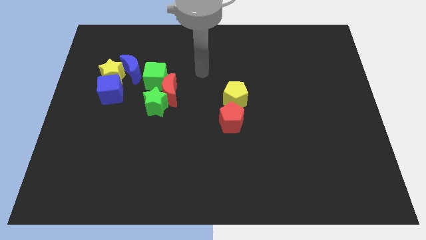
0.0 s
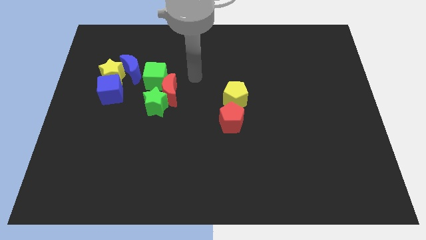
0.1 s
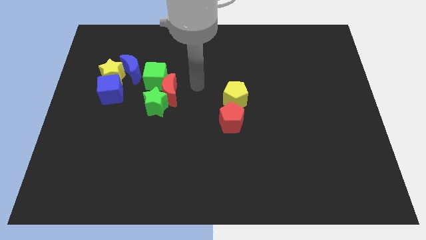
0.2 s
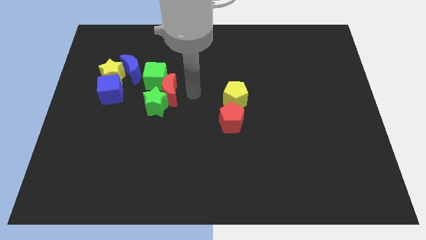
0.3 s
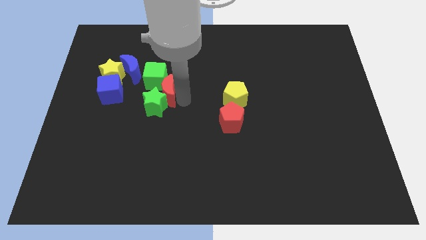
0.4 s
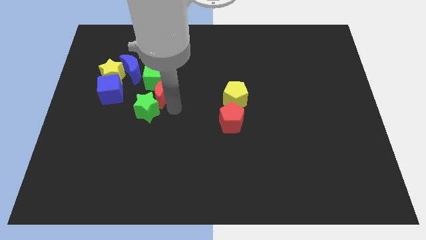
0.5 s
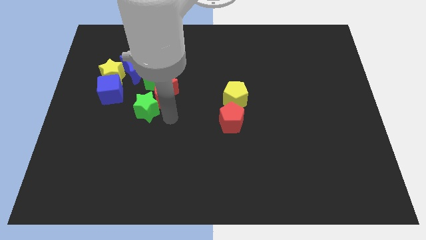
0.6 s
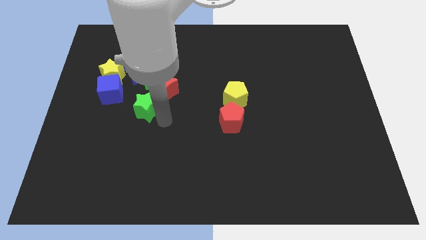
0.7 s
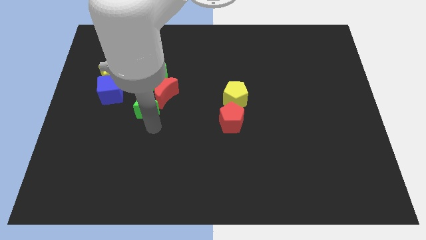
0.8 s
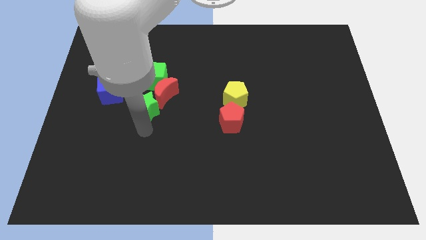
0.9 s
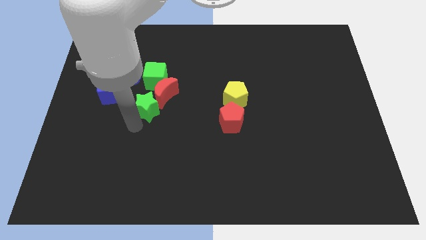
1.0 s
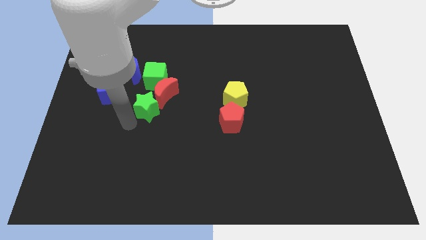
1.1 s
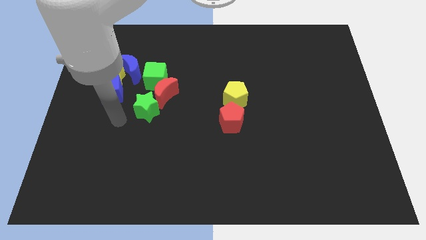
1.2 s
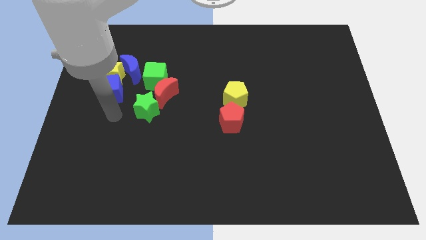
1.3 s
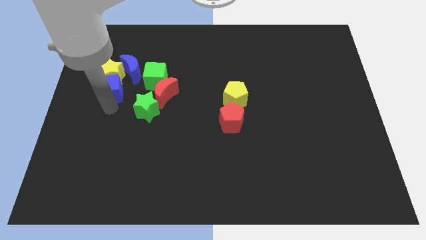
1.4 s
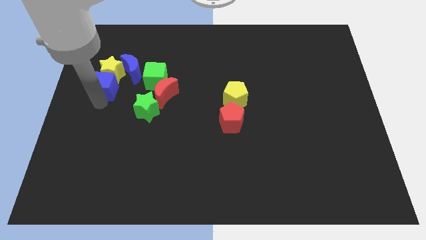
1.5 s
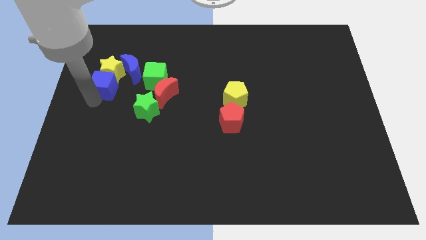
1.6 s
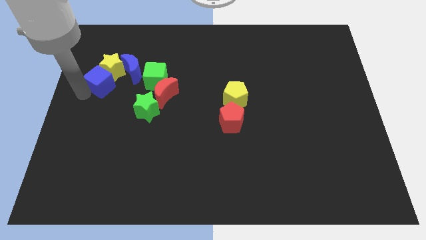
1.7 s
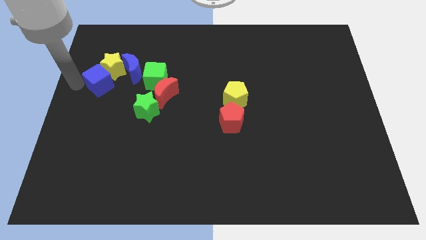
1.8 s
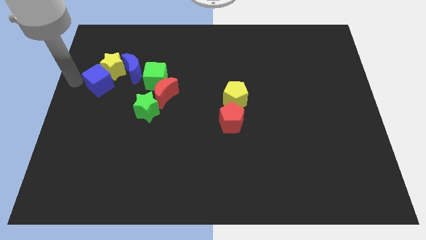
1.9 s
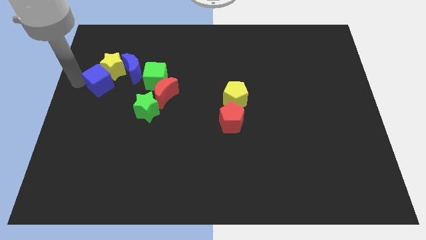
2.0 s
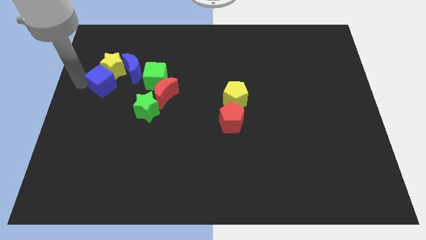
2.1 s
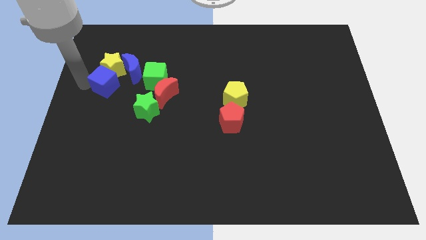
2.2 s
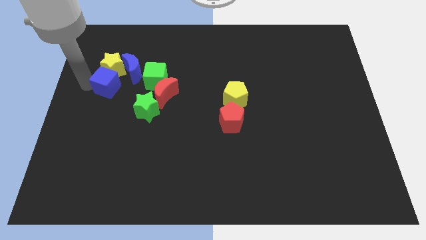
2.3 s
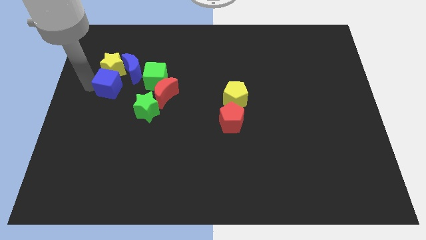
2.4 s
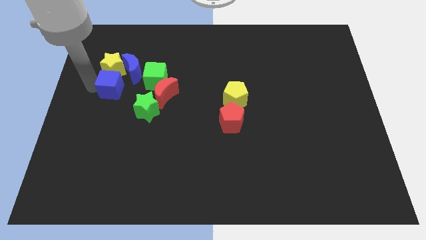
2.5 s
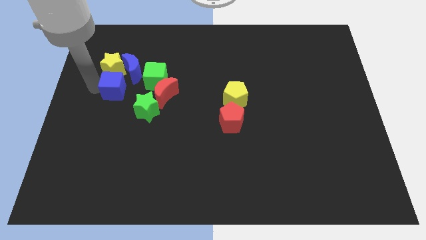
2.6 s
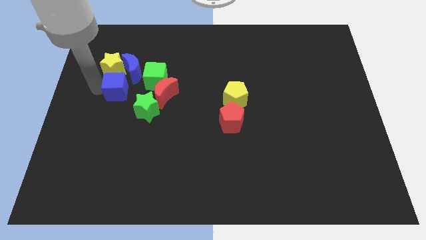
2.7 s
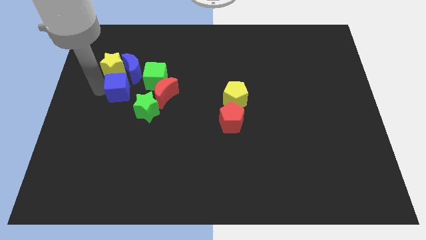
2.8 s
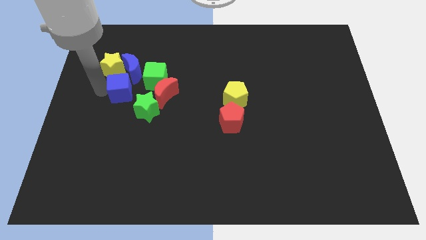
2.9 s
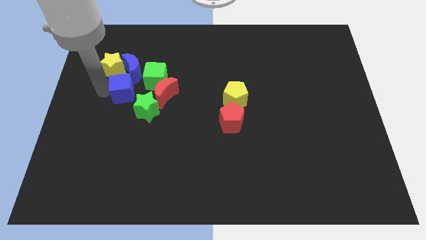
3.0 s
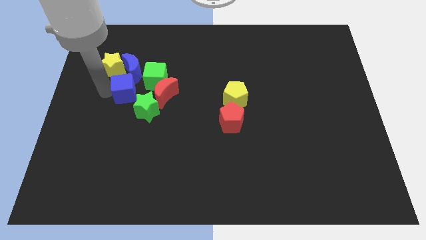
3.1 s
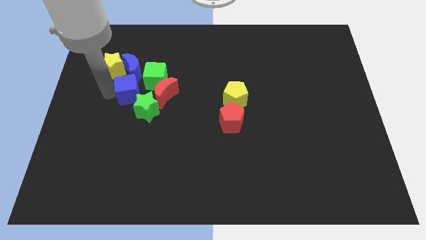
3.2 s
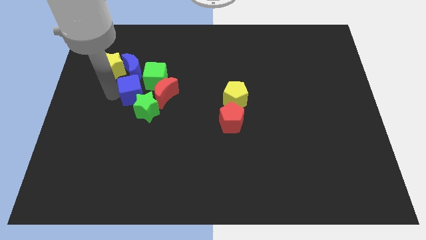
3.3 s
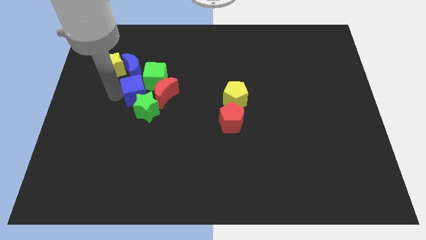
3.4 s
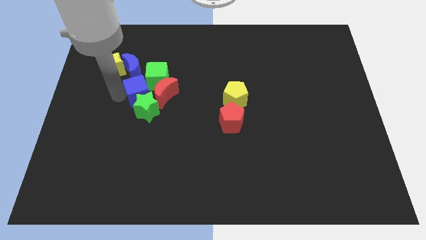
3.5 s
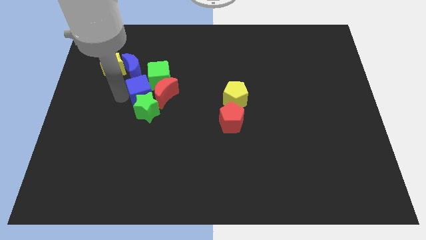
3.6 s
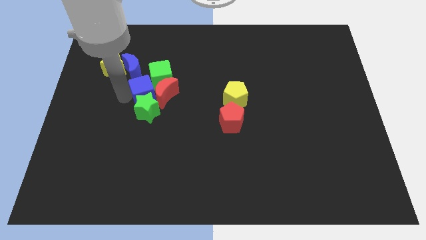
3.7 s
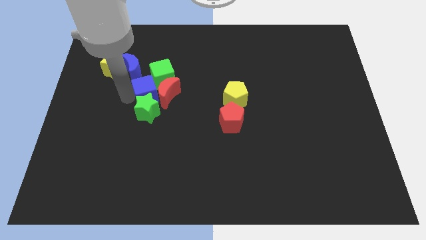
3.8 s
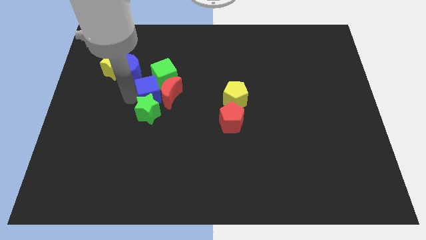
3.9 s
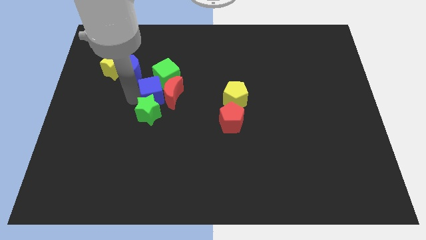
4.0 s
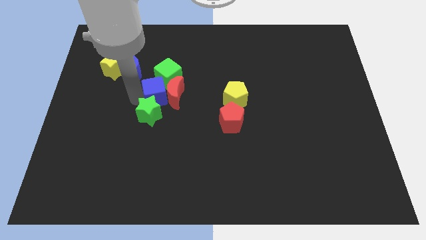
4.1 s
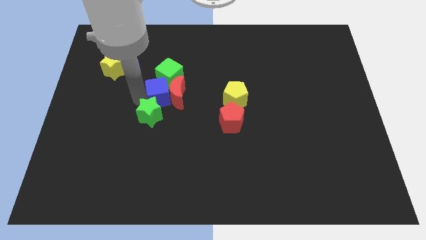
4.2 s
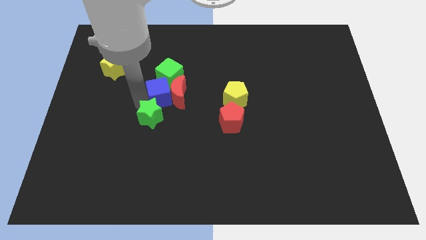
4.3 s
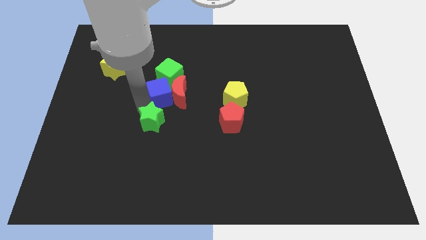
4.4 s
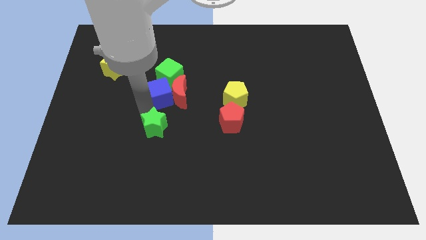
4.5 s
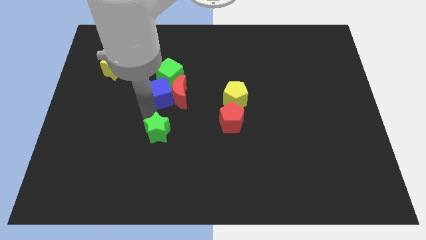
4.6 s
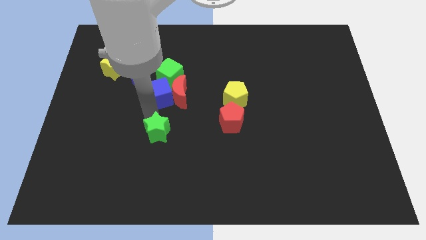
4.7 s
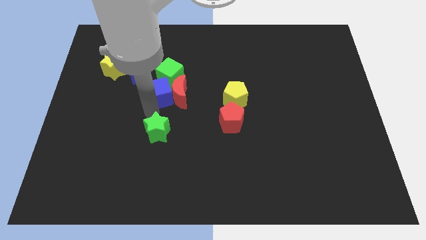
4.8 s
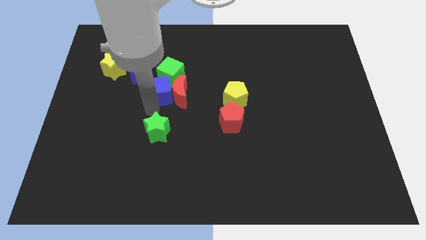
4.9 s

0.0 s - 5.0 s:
move the blue cube next to the green cube

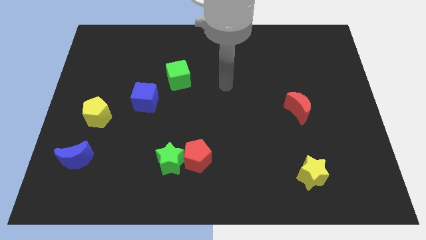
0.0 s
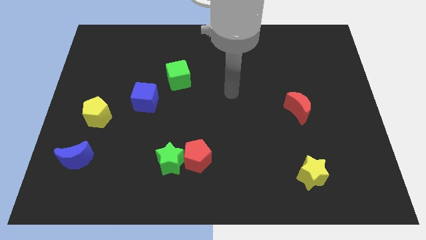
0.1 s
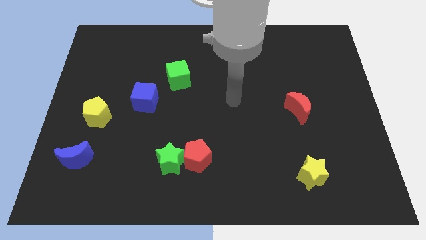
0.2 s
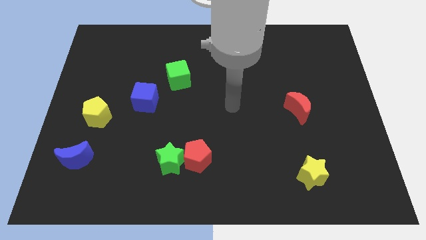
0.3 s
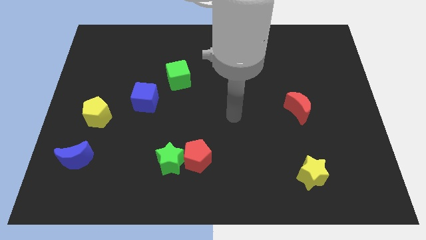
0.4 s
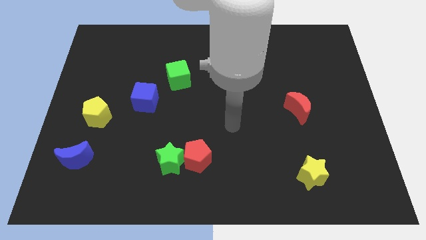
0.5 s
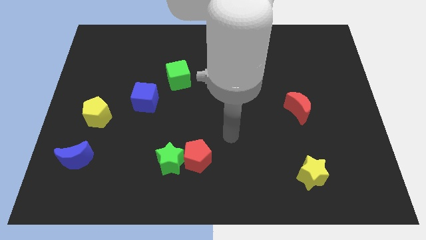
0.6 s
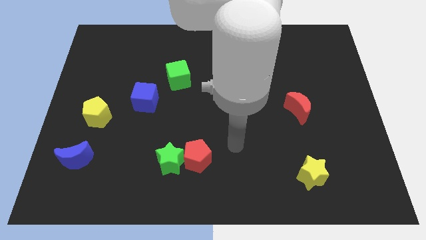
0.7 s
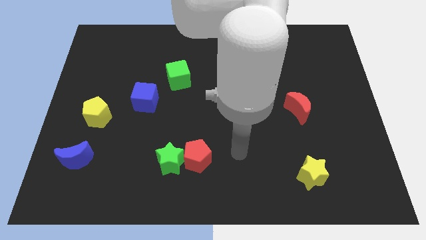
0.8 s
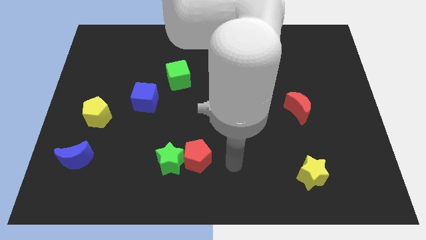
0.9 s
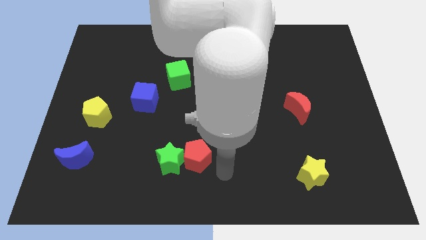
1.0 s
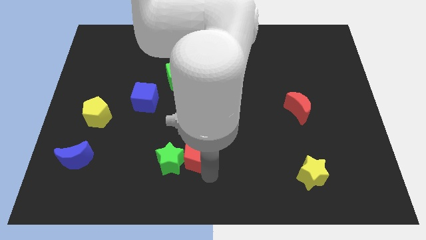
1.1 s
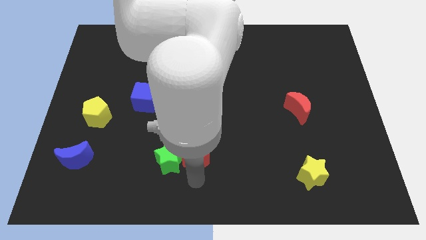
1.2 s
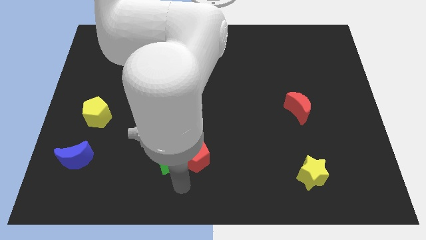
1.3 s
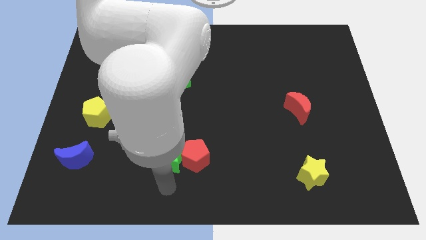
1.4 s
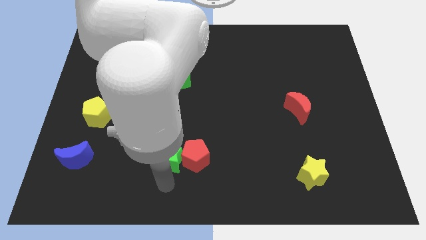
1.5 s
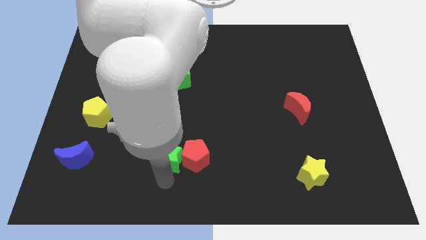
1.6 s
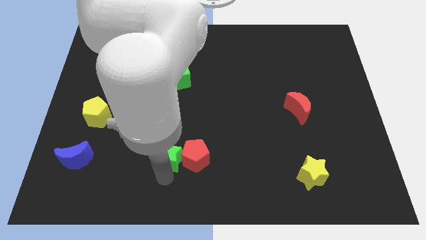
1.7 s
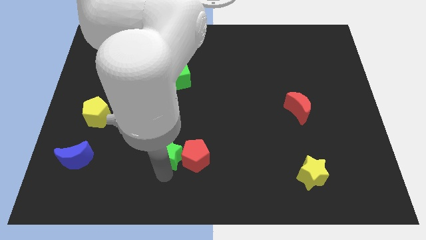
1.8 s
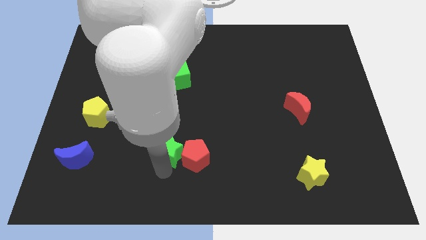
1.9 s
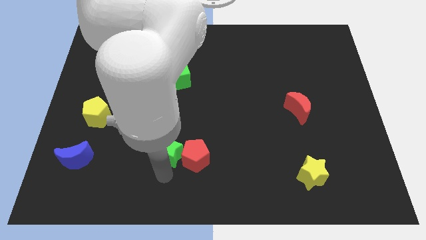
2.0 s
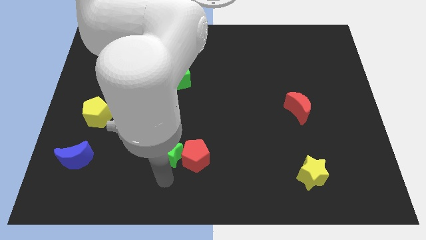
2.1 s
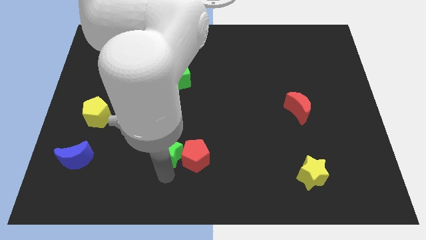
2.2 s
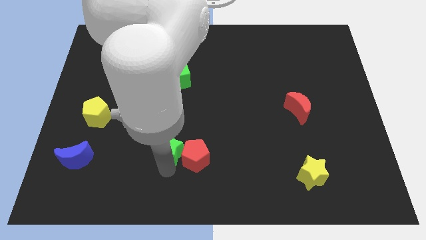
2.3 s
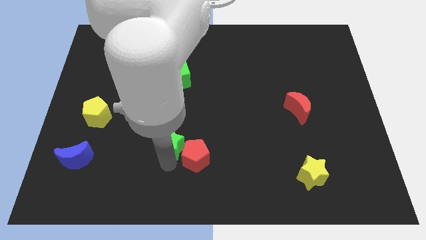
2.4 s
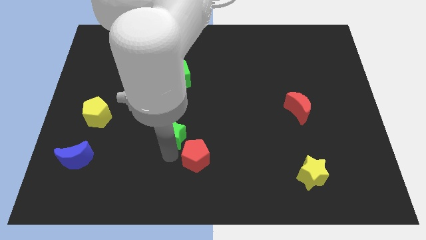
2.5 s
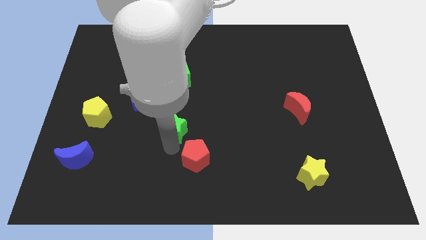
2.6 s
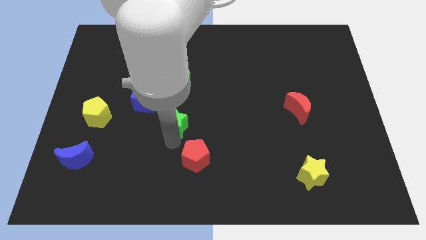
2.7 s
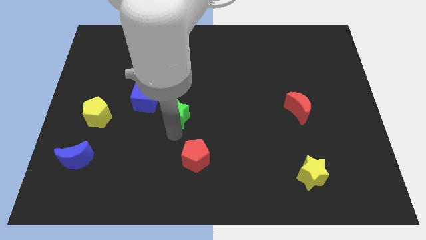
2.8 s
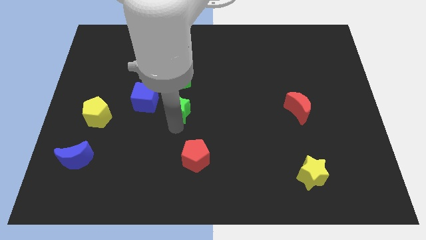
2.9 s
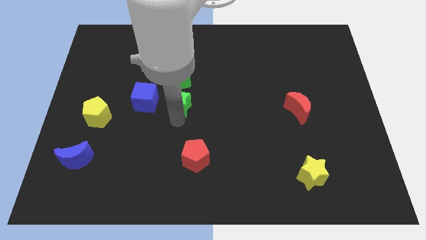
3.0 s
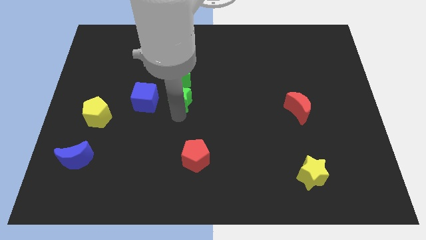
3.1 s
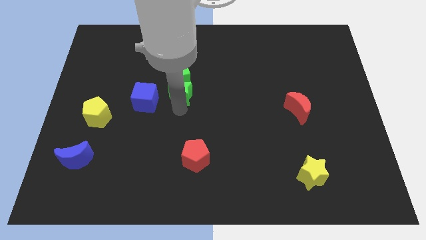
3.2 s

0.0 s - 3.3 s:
put the green star towards the green cube
